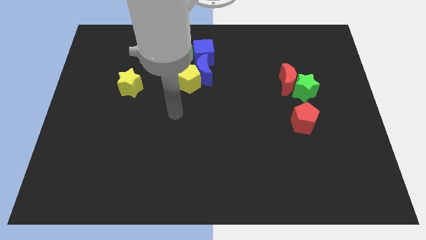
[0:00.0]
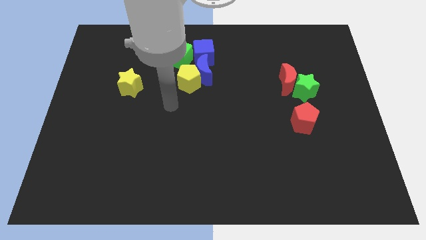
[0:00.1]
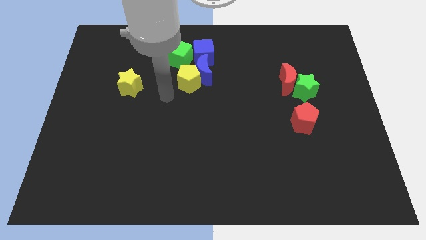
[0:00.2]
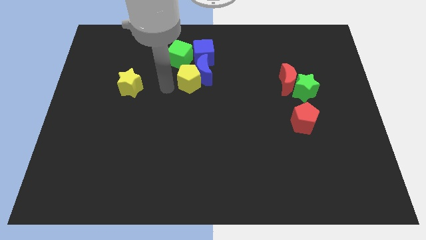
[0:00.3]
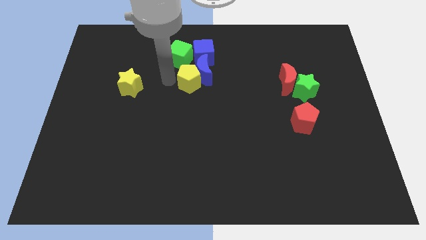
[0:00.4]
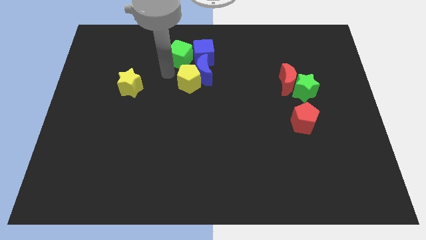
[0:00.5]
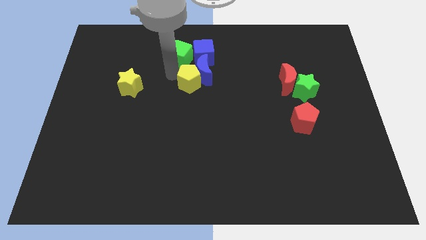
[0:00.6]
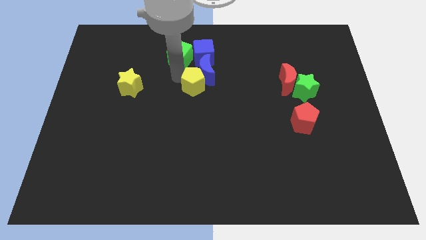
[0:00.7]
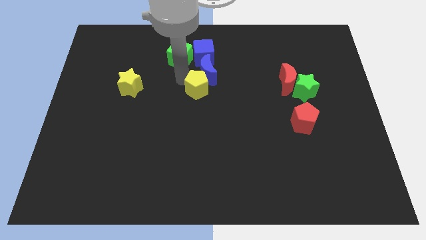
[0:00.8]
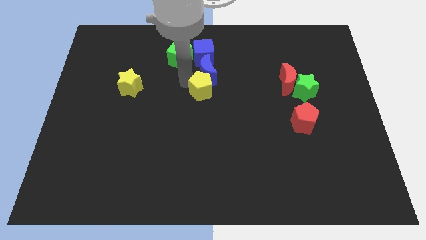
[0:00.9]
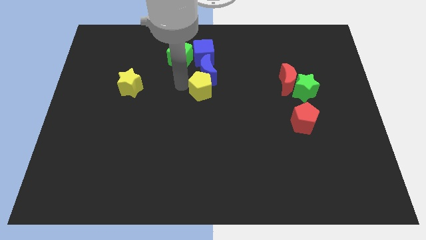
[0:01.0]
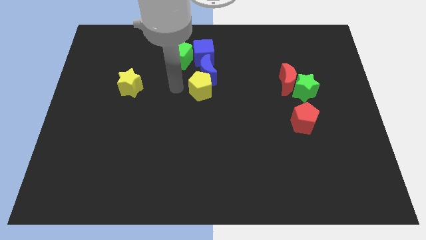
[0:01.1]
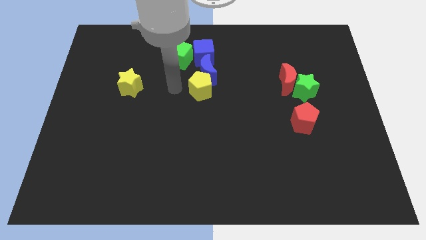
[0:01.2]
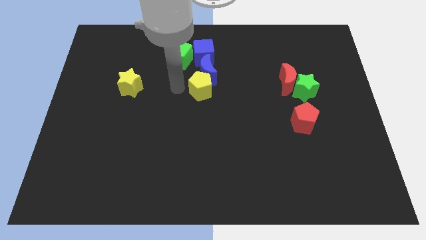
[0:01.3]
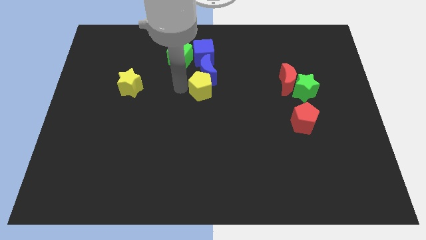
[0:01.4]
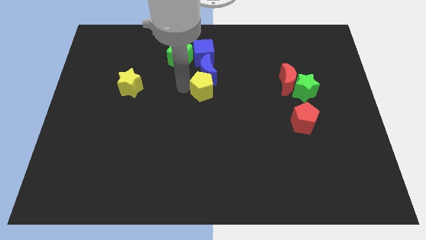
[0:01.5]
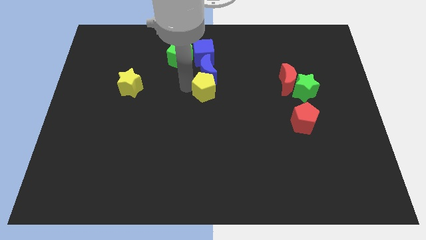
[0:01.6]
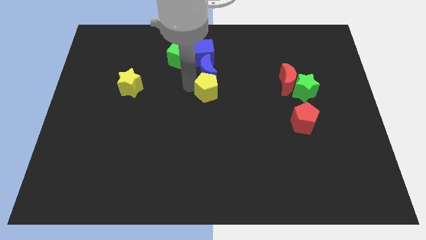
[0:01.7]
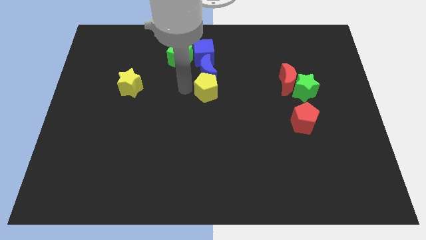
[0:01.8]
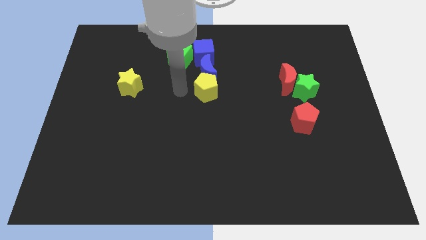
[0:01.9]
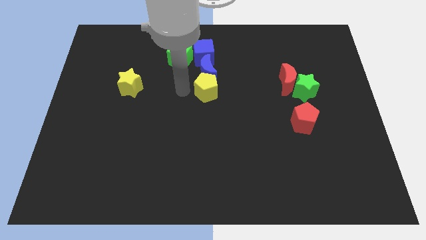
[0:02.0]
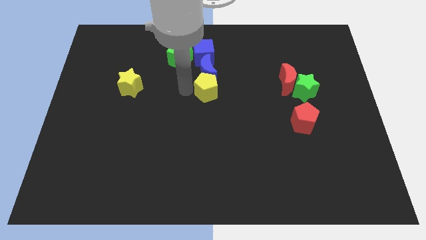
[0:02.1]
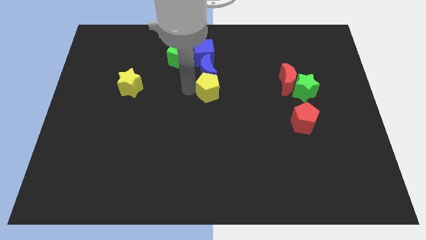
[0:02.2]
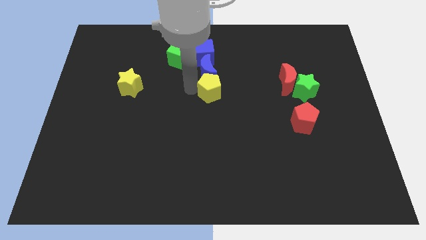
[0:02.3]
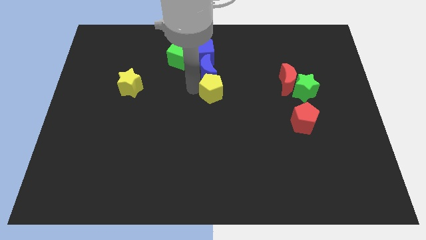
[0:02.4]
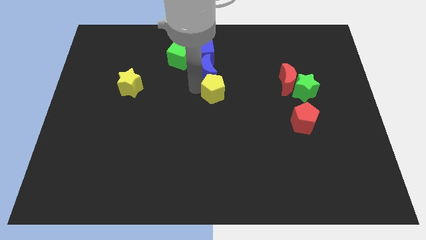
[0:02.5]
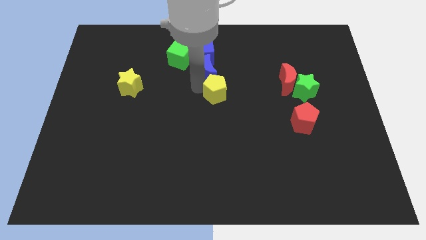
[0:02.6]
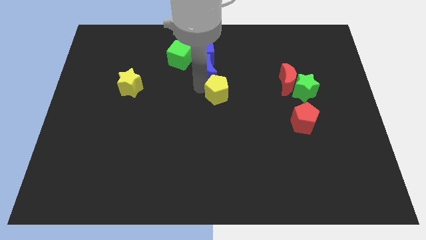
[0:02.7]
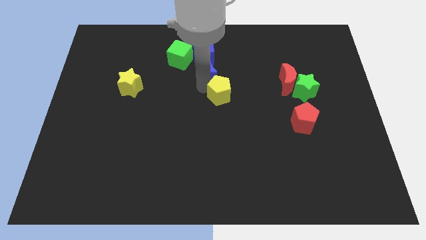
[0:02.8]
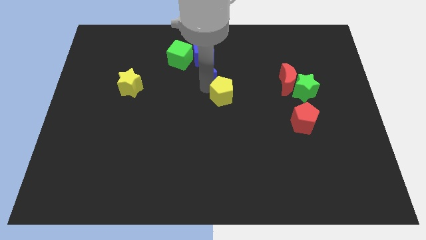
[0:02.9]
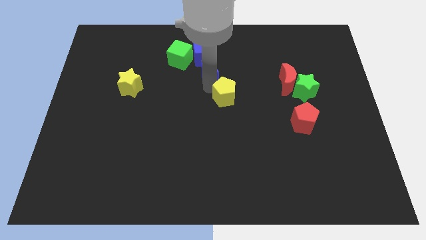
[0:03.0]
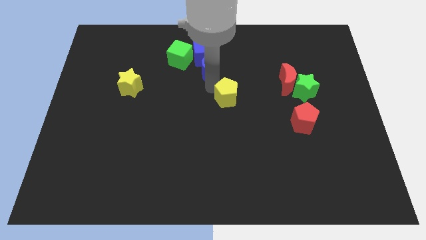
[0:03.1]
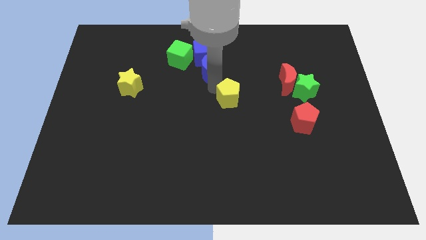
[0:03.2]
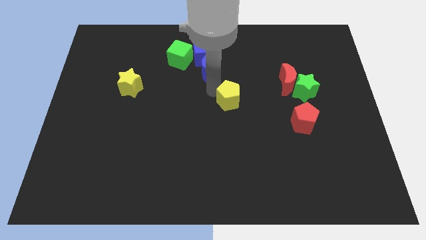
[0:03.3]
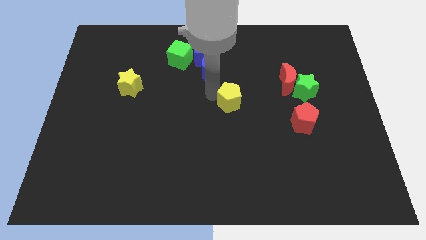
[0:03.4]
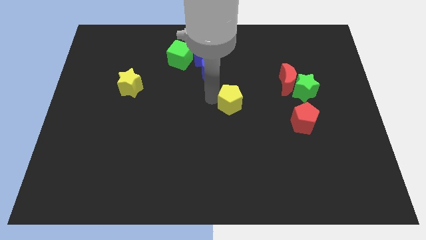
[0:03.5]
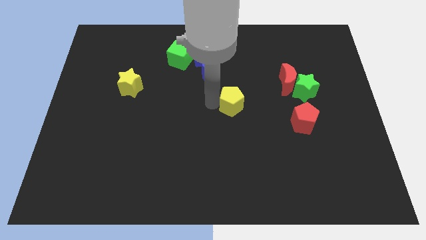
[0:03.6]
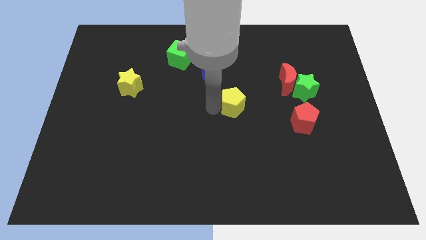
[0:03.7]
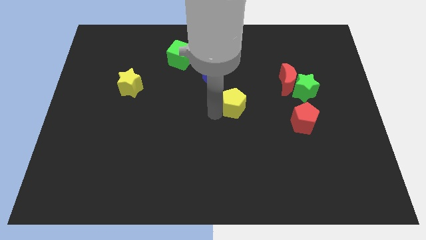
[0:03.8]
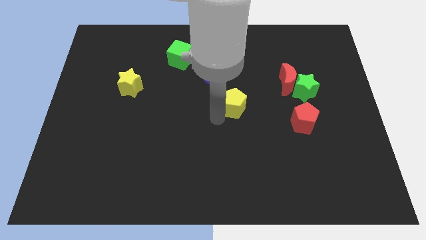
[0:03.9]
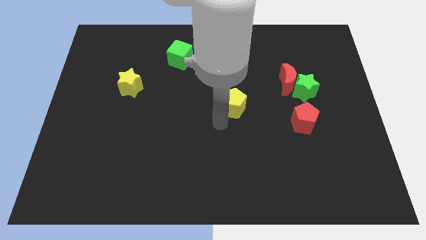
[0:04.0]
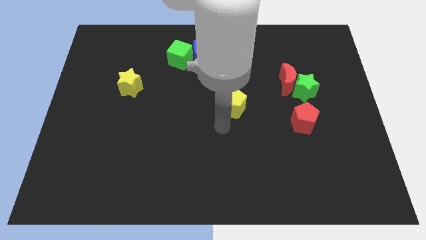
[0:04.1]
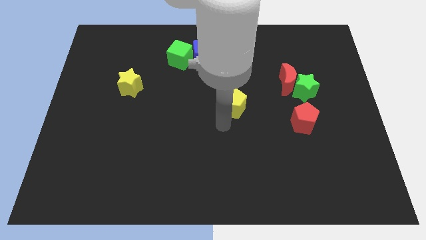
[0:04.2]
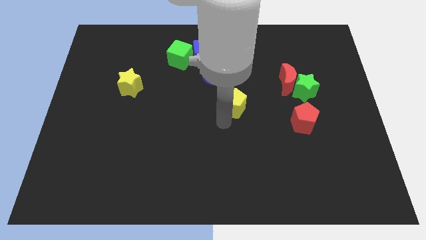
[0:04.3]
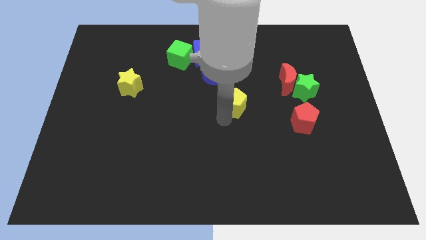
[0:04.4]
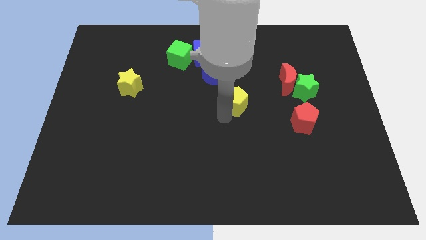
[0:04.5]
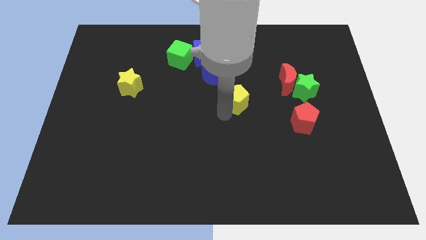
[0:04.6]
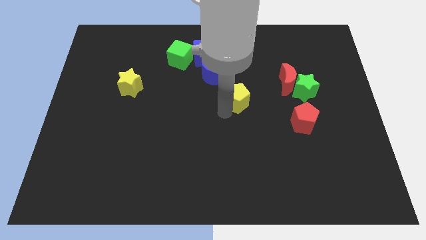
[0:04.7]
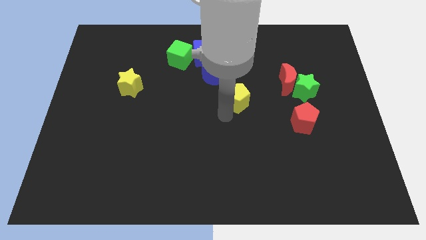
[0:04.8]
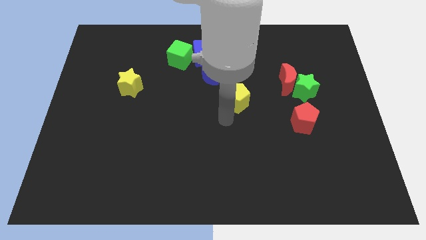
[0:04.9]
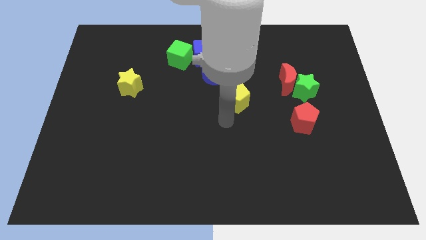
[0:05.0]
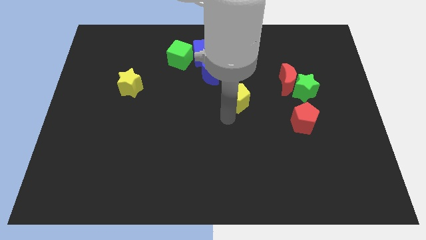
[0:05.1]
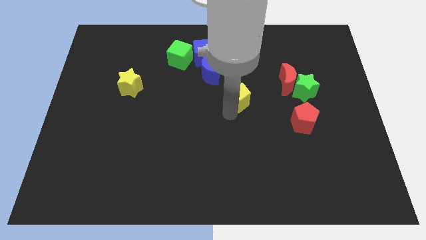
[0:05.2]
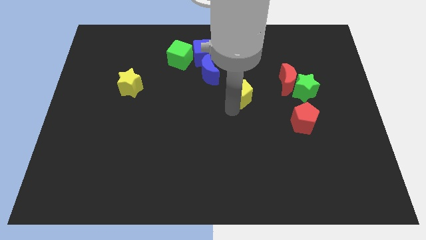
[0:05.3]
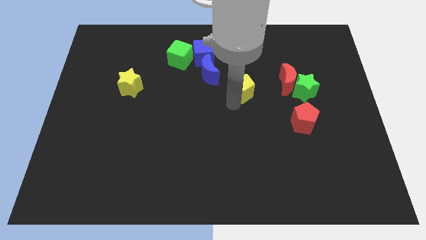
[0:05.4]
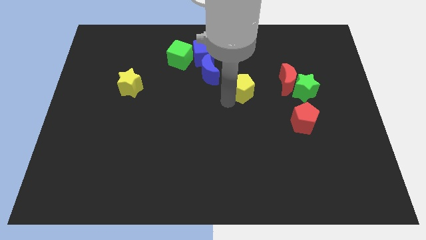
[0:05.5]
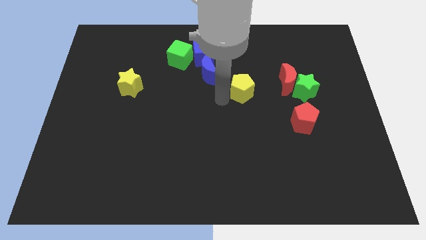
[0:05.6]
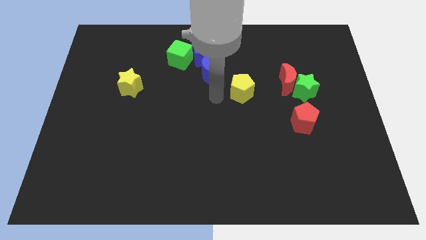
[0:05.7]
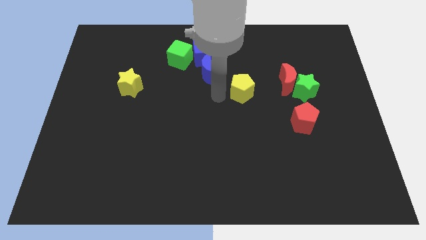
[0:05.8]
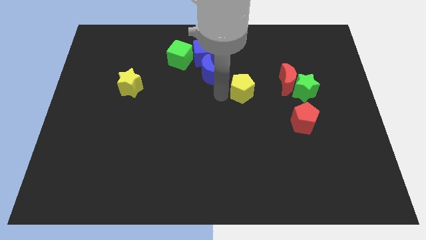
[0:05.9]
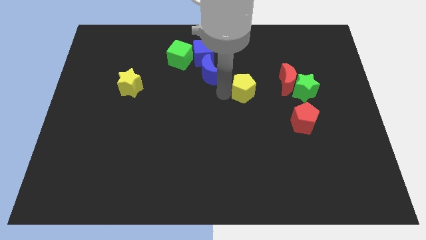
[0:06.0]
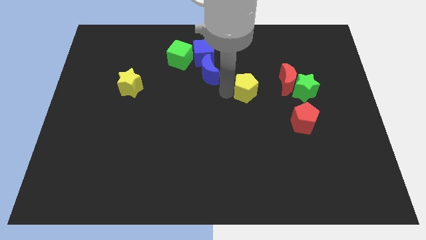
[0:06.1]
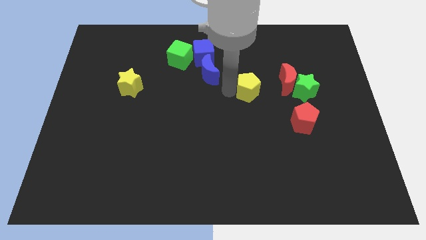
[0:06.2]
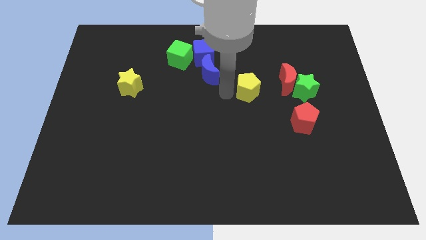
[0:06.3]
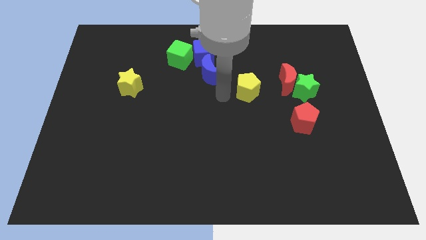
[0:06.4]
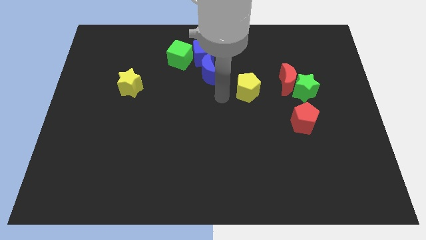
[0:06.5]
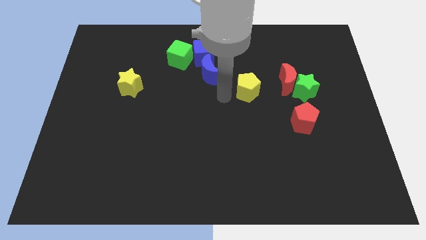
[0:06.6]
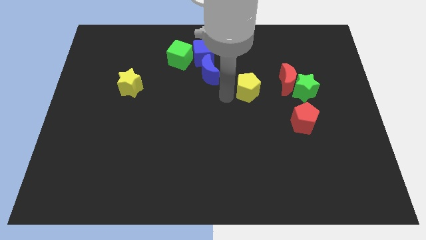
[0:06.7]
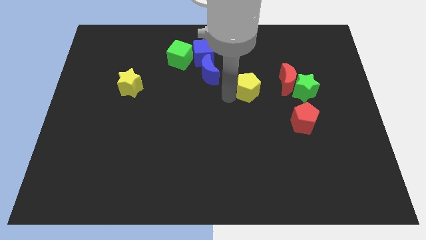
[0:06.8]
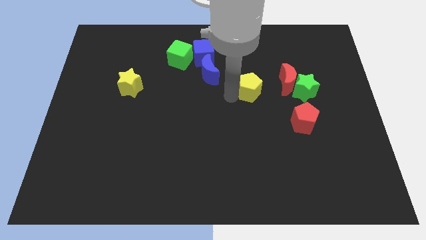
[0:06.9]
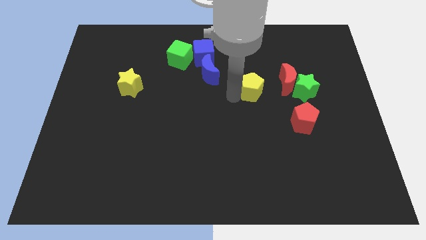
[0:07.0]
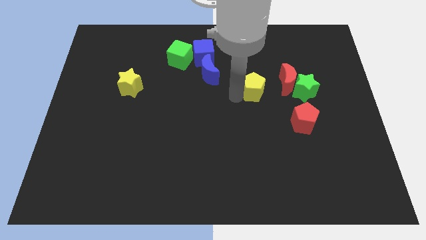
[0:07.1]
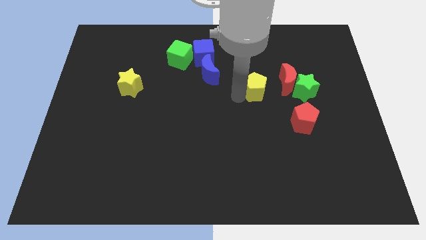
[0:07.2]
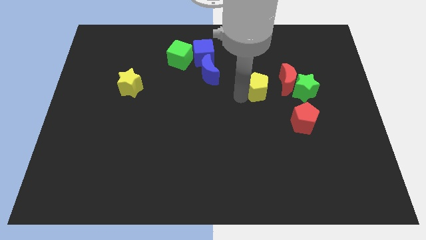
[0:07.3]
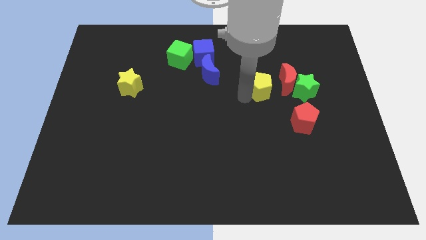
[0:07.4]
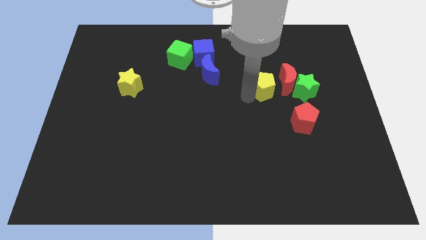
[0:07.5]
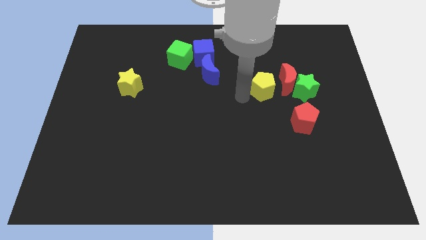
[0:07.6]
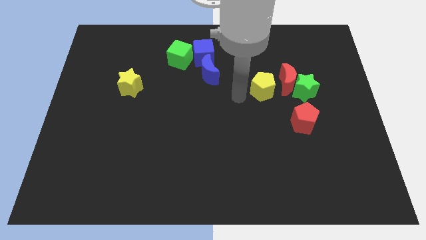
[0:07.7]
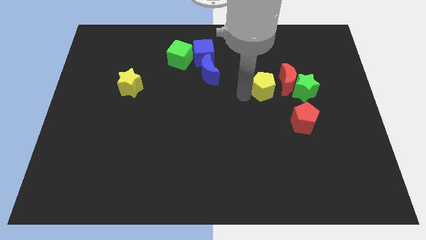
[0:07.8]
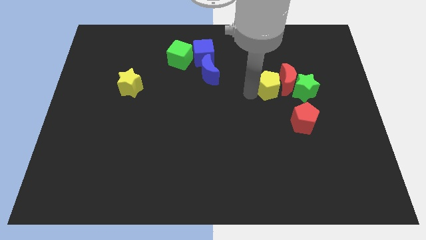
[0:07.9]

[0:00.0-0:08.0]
push the yellow pentagon close to the red moon
